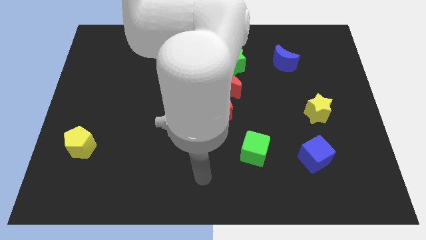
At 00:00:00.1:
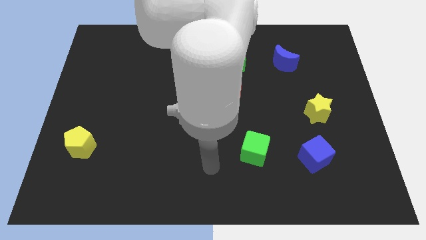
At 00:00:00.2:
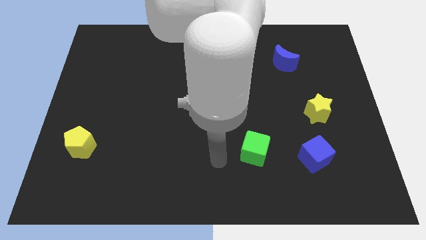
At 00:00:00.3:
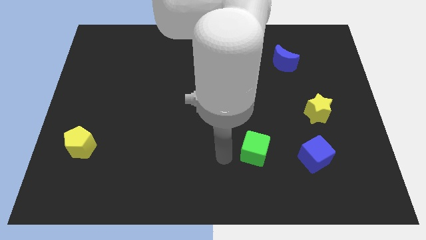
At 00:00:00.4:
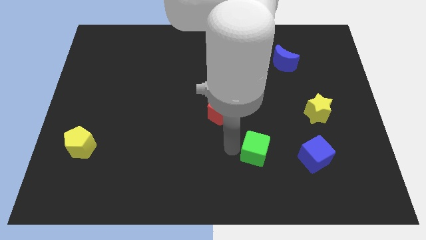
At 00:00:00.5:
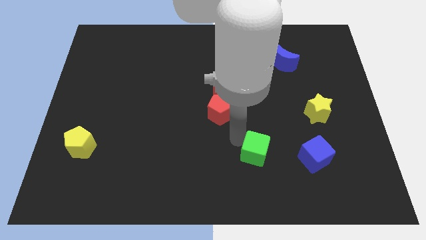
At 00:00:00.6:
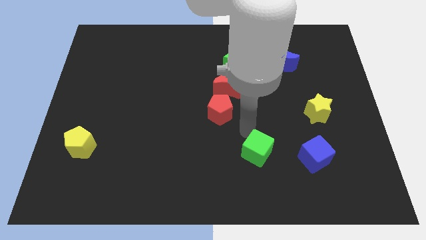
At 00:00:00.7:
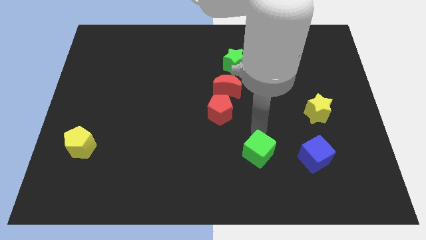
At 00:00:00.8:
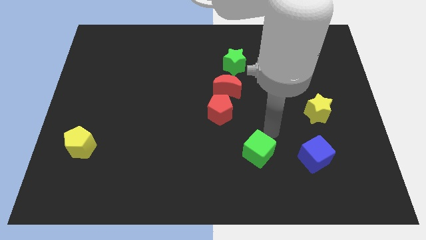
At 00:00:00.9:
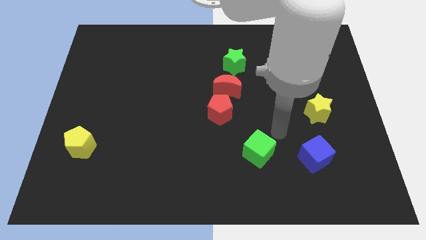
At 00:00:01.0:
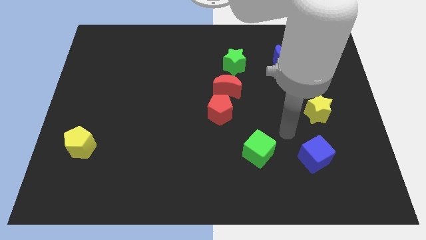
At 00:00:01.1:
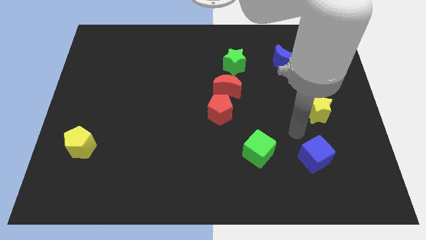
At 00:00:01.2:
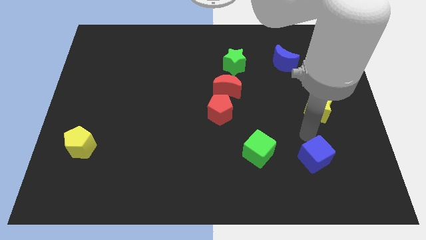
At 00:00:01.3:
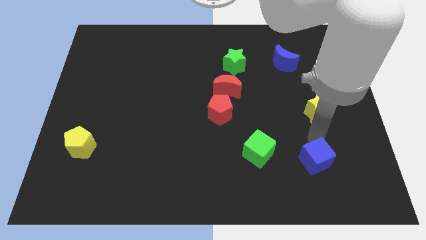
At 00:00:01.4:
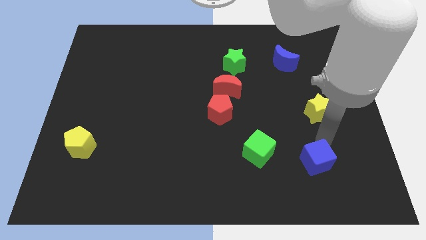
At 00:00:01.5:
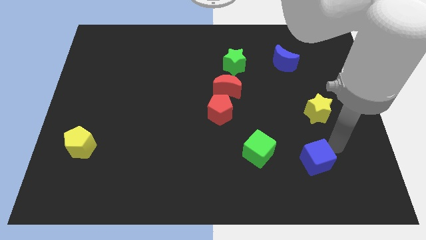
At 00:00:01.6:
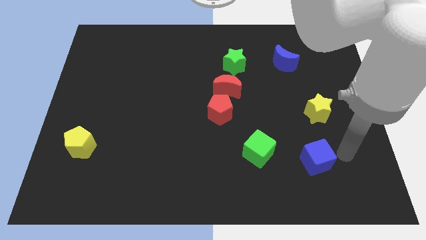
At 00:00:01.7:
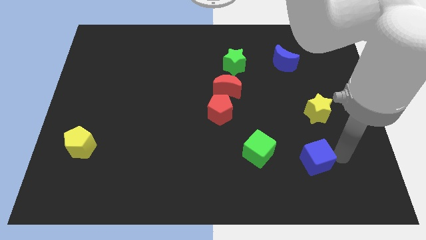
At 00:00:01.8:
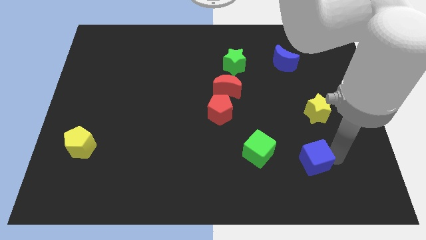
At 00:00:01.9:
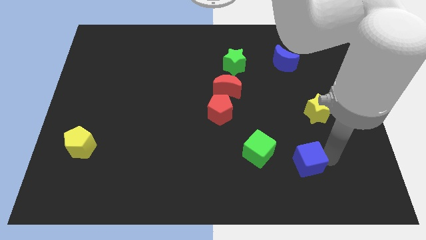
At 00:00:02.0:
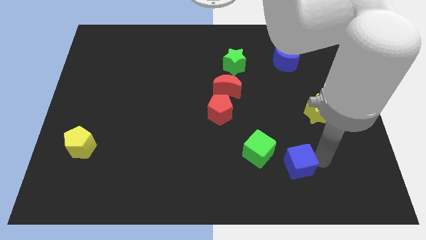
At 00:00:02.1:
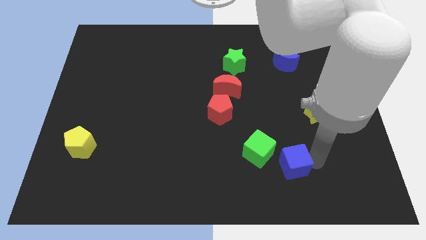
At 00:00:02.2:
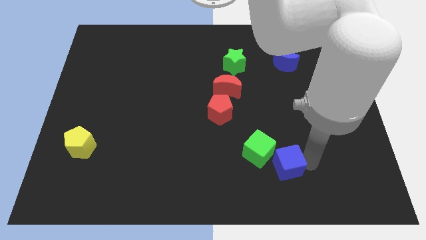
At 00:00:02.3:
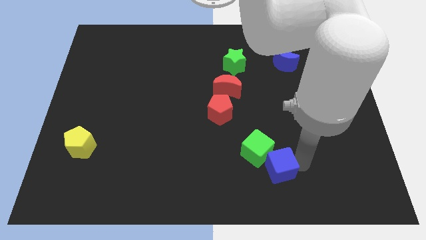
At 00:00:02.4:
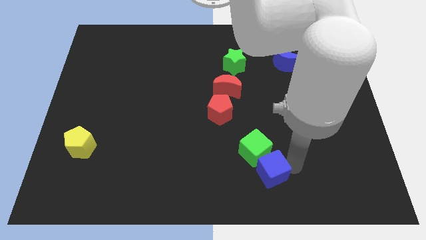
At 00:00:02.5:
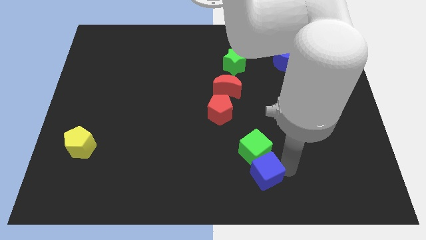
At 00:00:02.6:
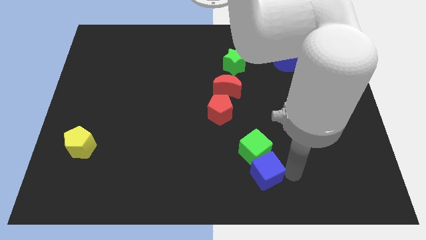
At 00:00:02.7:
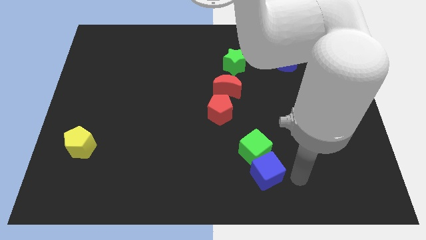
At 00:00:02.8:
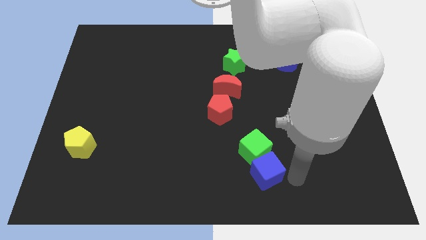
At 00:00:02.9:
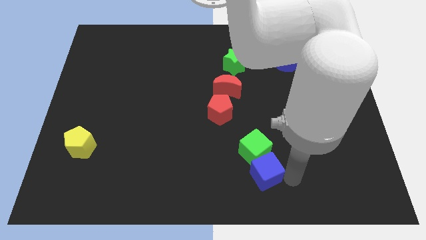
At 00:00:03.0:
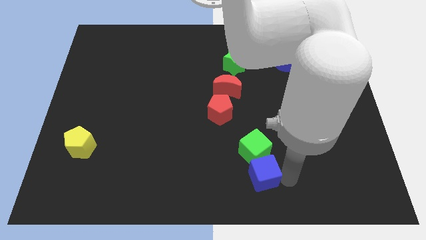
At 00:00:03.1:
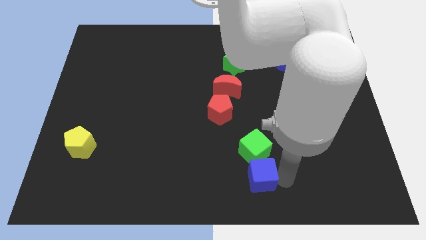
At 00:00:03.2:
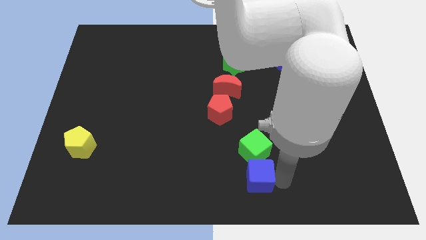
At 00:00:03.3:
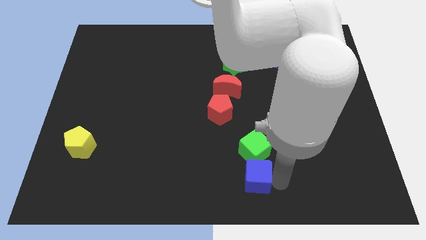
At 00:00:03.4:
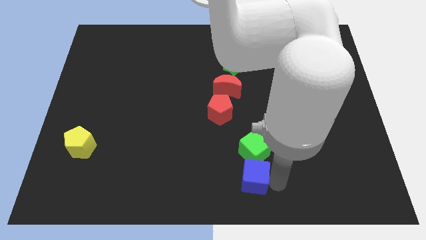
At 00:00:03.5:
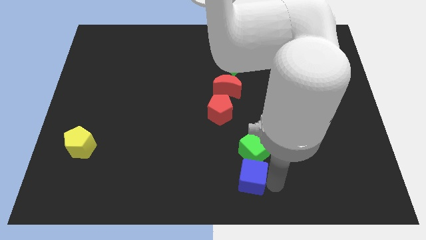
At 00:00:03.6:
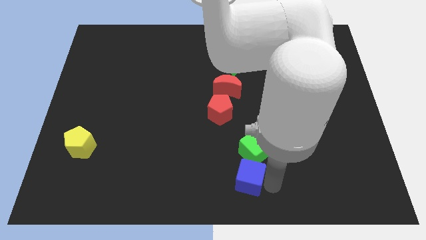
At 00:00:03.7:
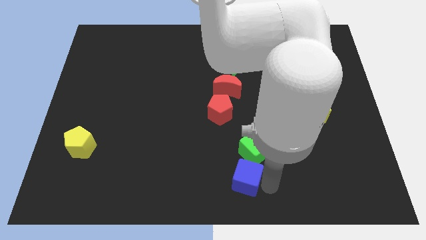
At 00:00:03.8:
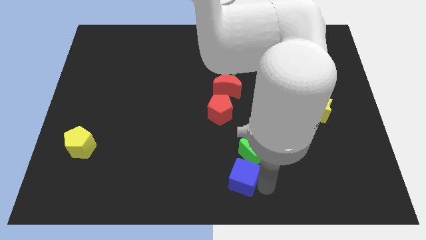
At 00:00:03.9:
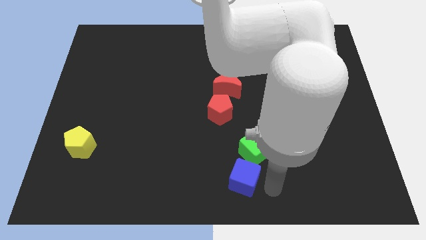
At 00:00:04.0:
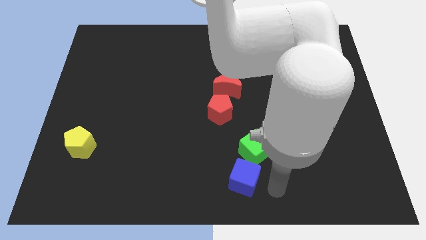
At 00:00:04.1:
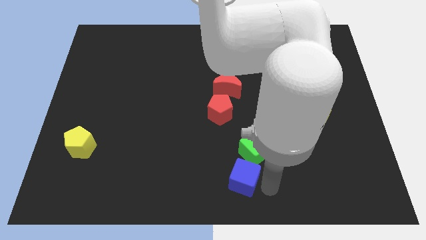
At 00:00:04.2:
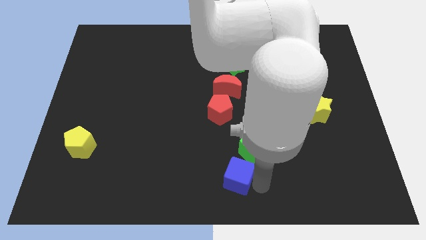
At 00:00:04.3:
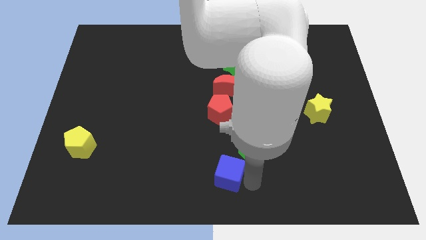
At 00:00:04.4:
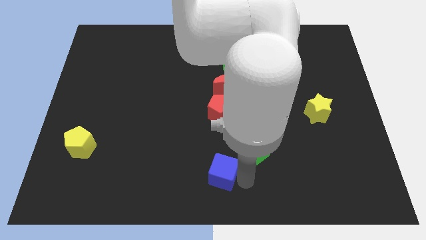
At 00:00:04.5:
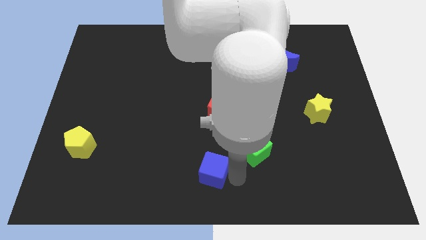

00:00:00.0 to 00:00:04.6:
move the blue cube to the left

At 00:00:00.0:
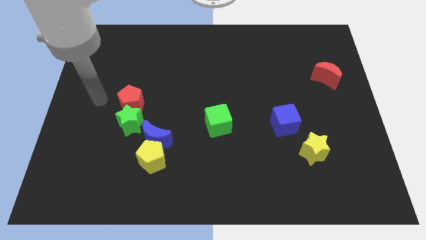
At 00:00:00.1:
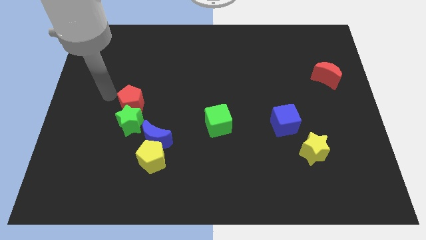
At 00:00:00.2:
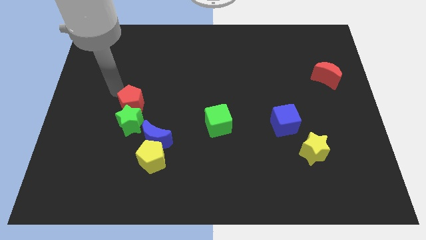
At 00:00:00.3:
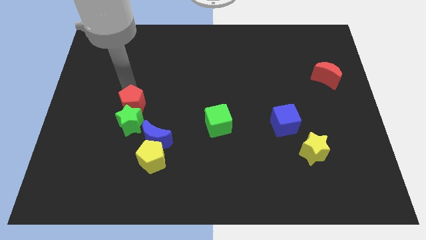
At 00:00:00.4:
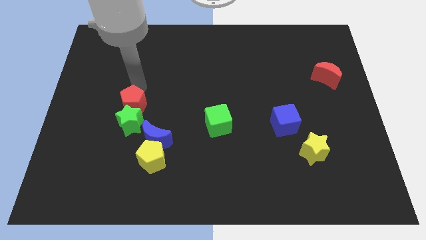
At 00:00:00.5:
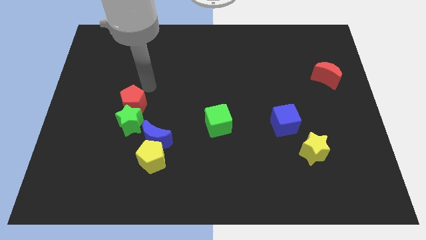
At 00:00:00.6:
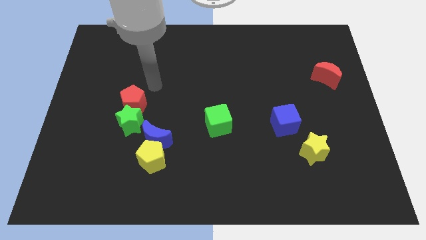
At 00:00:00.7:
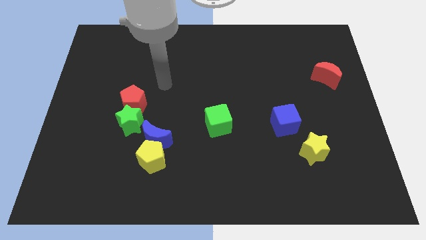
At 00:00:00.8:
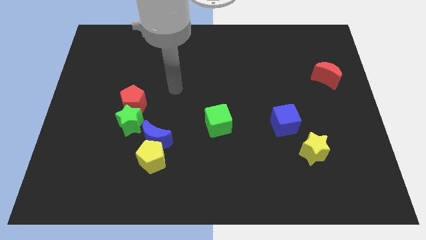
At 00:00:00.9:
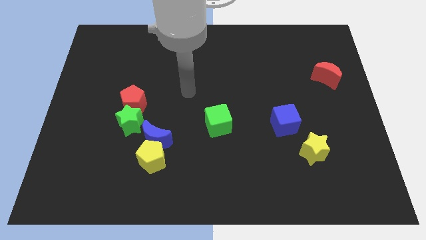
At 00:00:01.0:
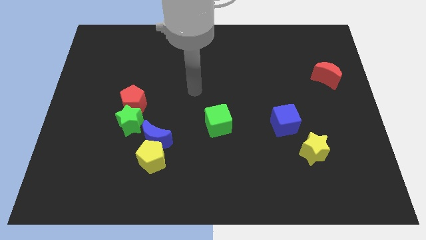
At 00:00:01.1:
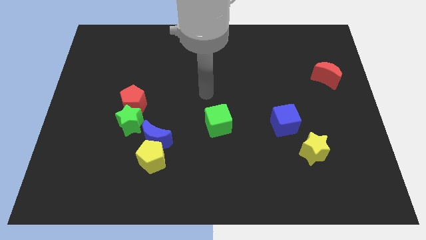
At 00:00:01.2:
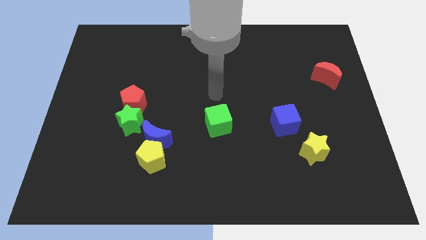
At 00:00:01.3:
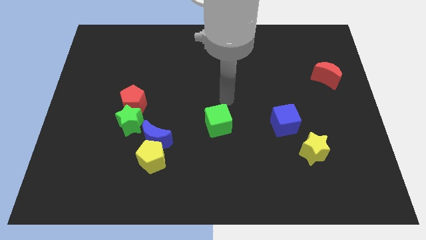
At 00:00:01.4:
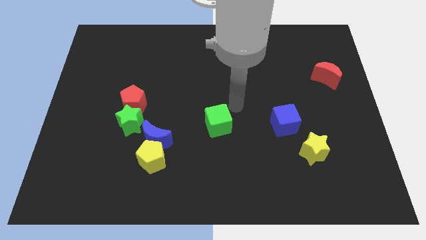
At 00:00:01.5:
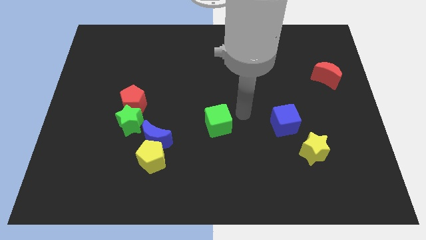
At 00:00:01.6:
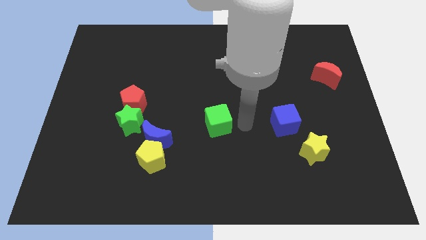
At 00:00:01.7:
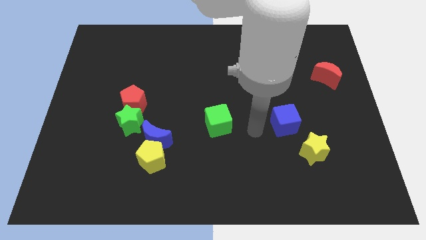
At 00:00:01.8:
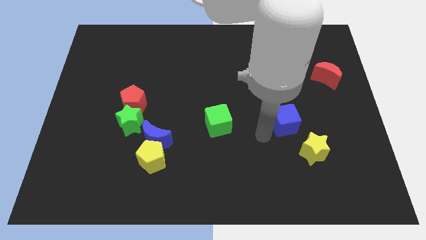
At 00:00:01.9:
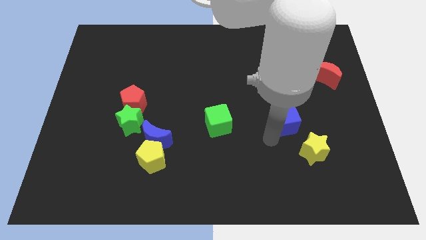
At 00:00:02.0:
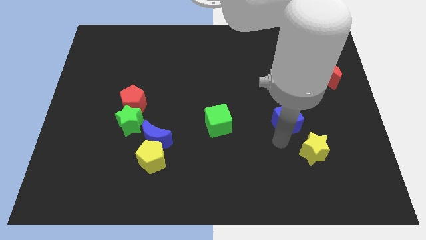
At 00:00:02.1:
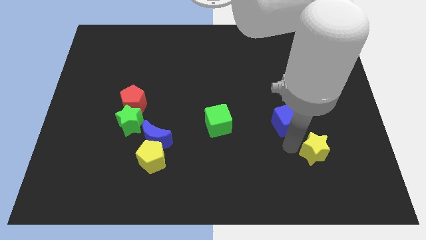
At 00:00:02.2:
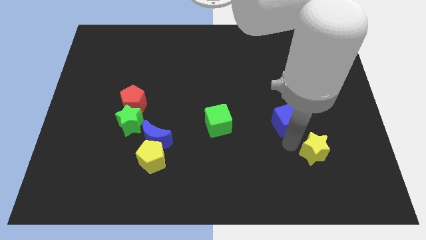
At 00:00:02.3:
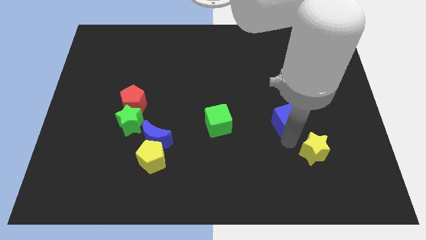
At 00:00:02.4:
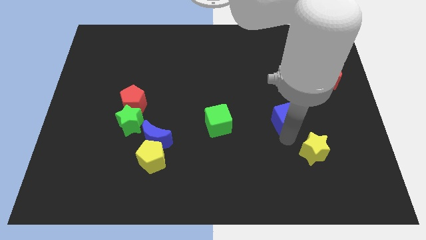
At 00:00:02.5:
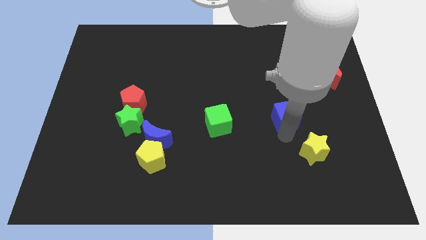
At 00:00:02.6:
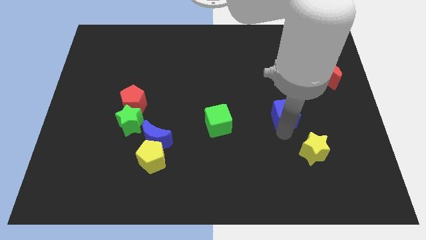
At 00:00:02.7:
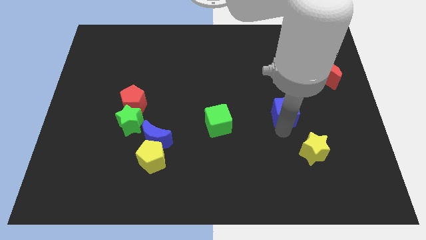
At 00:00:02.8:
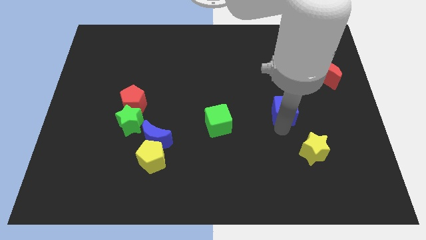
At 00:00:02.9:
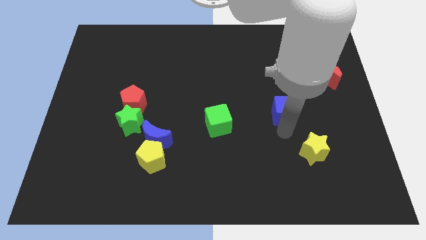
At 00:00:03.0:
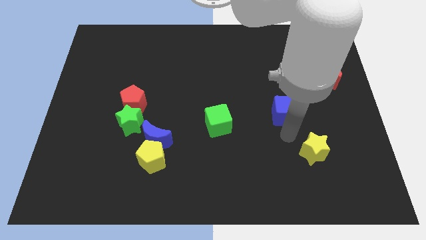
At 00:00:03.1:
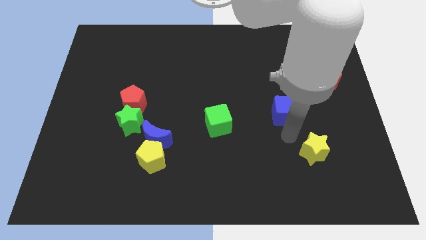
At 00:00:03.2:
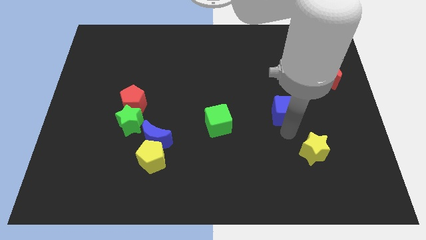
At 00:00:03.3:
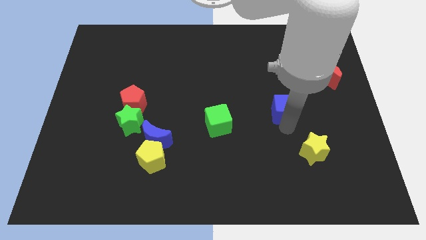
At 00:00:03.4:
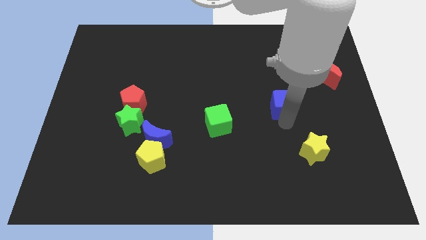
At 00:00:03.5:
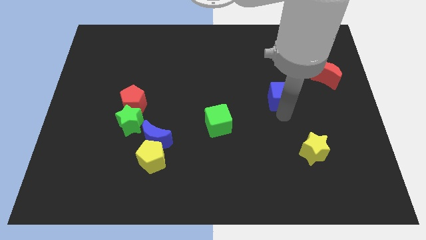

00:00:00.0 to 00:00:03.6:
move the blue cube upwards a little
